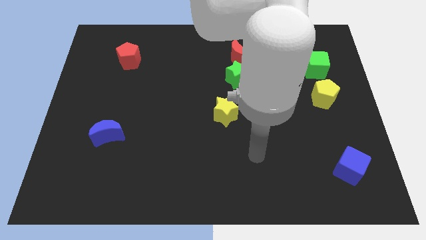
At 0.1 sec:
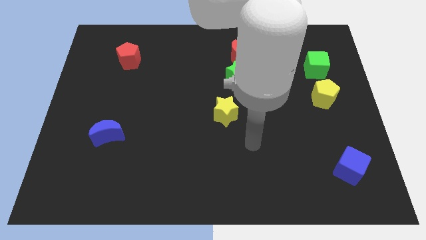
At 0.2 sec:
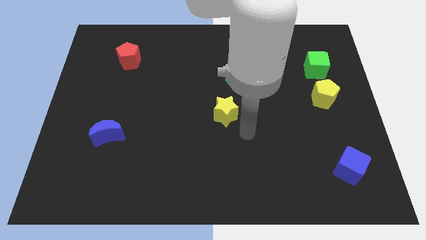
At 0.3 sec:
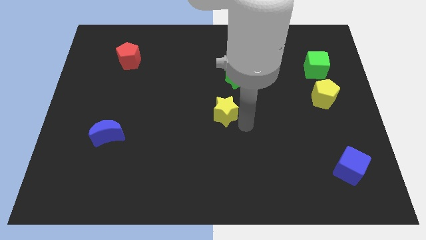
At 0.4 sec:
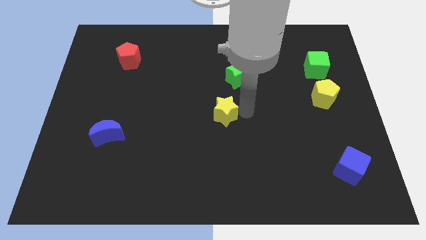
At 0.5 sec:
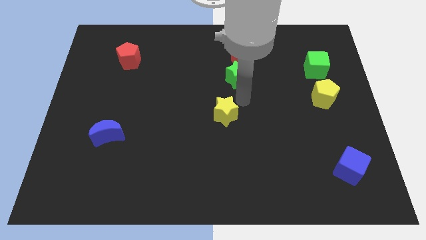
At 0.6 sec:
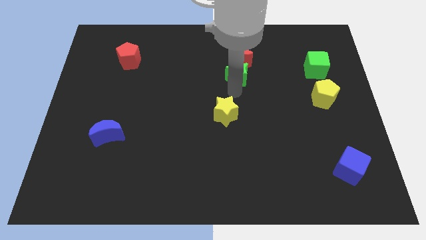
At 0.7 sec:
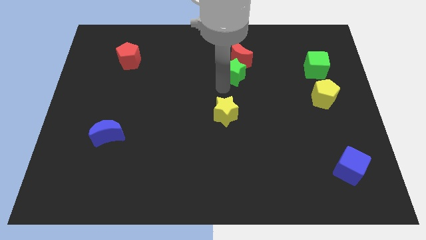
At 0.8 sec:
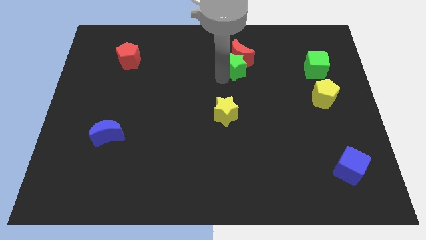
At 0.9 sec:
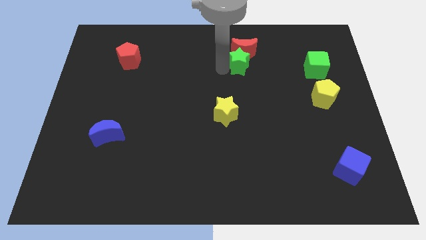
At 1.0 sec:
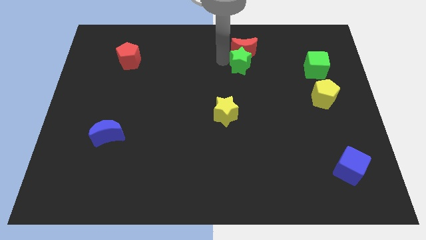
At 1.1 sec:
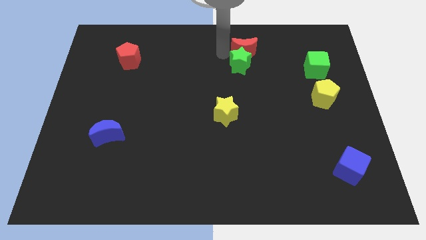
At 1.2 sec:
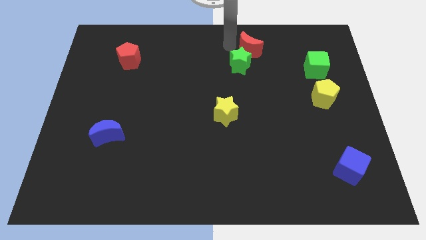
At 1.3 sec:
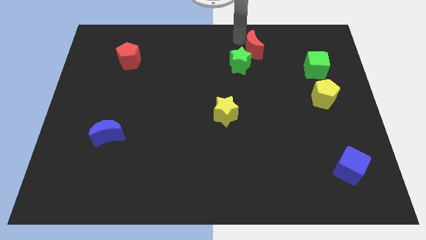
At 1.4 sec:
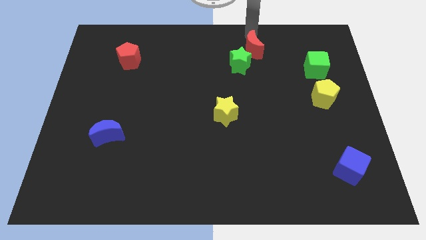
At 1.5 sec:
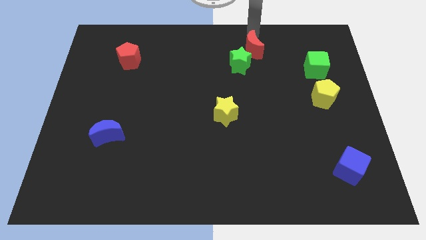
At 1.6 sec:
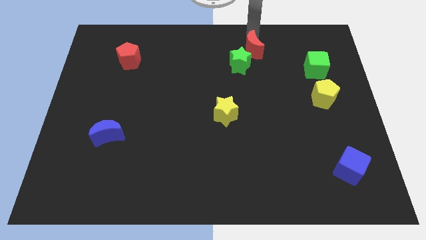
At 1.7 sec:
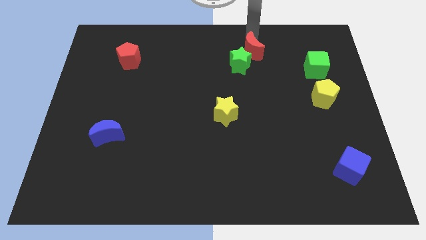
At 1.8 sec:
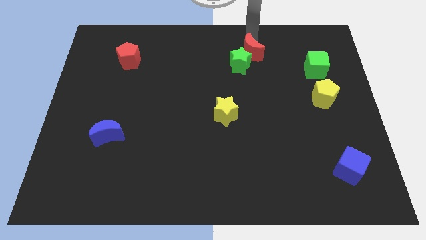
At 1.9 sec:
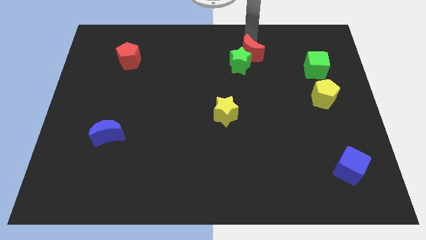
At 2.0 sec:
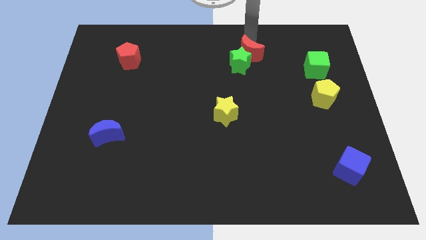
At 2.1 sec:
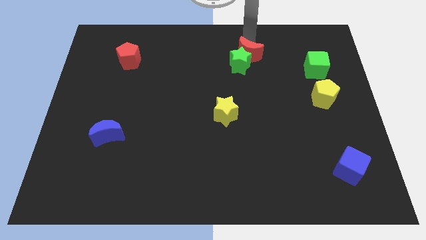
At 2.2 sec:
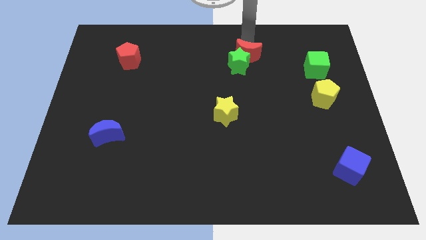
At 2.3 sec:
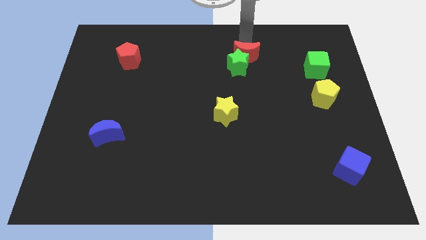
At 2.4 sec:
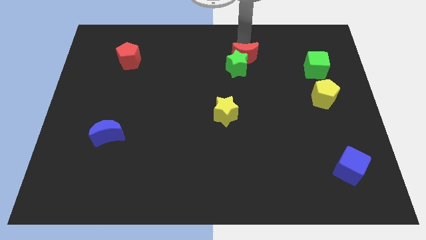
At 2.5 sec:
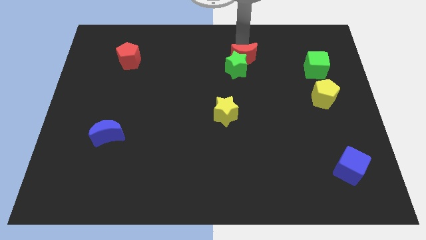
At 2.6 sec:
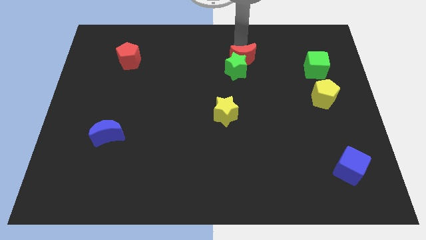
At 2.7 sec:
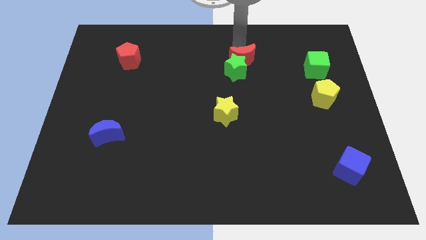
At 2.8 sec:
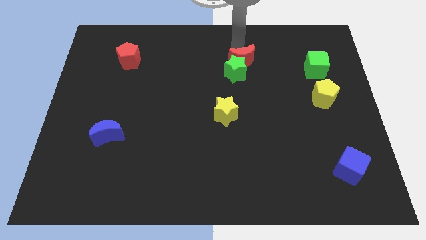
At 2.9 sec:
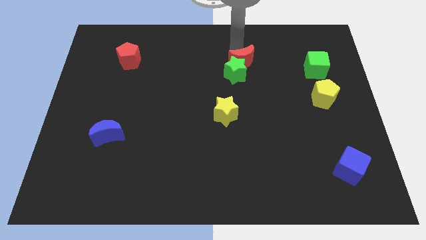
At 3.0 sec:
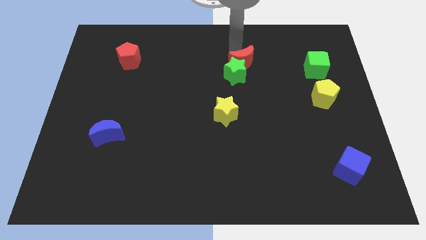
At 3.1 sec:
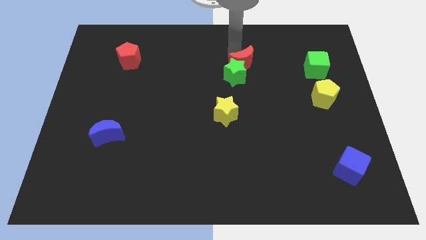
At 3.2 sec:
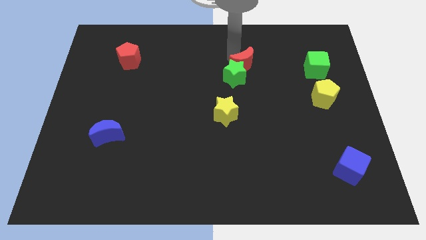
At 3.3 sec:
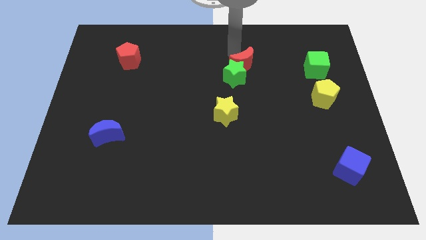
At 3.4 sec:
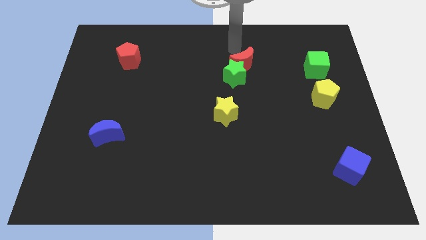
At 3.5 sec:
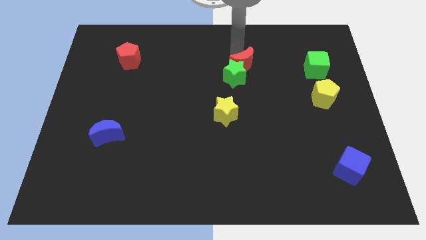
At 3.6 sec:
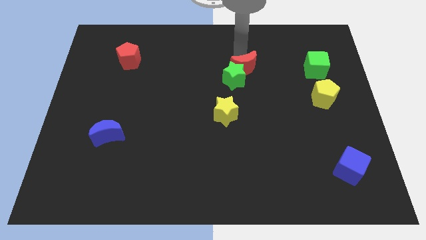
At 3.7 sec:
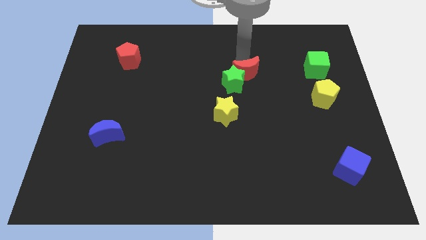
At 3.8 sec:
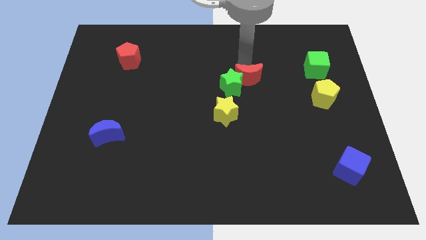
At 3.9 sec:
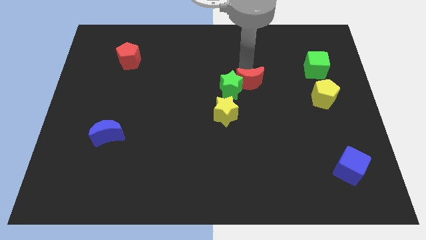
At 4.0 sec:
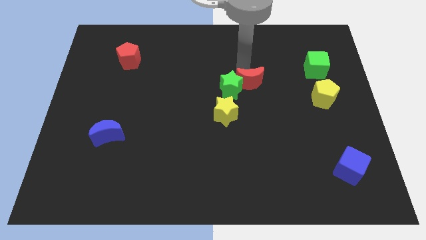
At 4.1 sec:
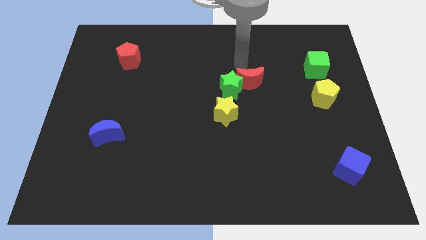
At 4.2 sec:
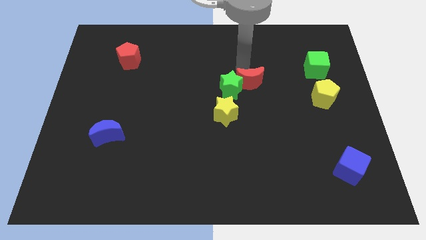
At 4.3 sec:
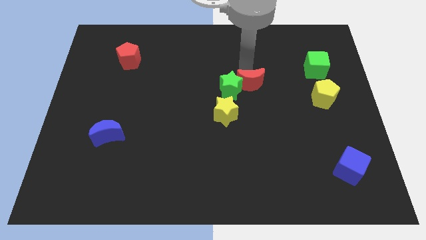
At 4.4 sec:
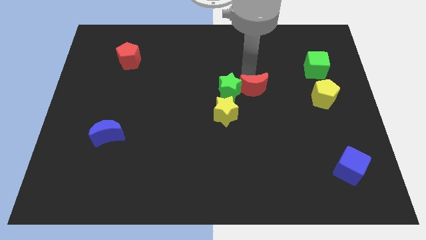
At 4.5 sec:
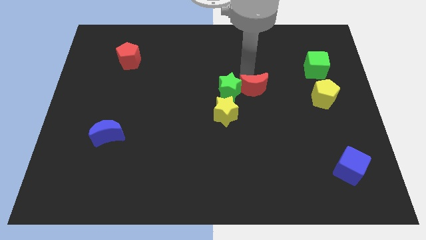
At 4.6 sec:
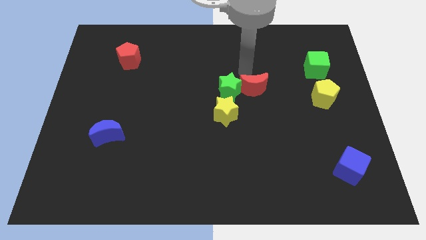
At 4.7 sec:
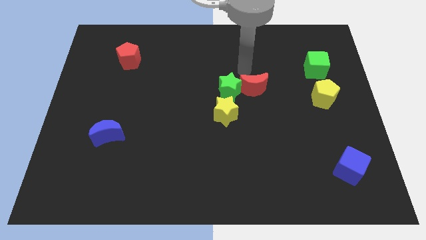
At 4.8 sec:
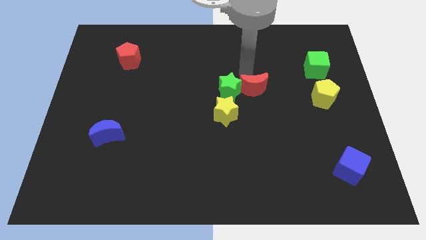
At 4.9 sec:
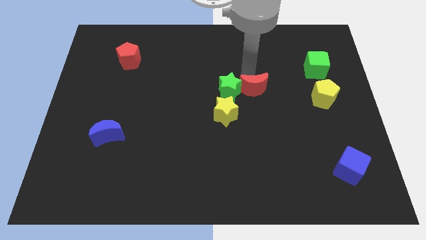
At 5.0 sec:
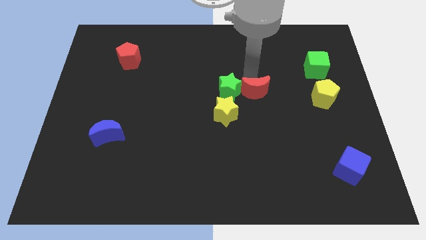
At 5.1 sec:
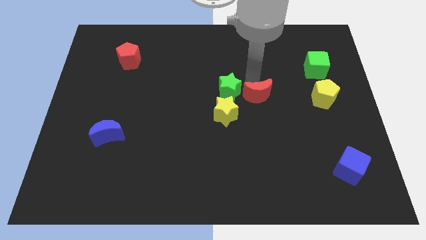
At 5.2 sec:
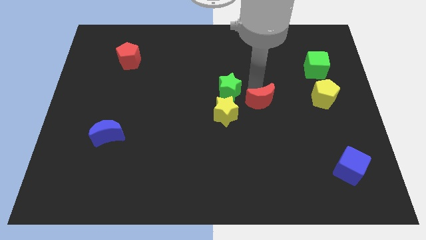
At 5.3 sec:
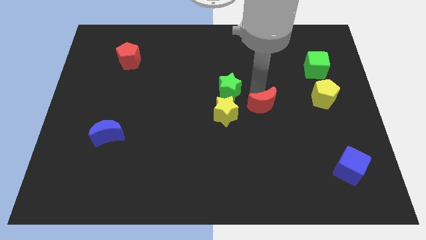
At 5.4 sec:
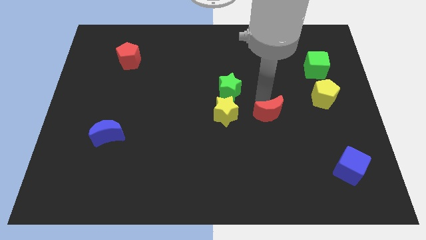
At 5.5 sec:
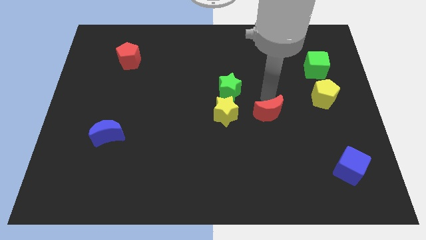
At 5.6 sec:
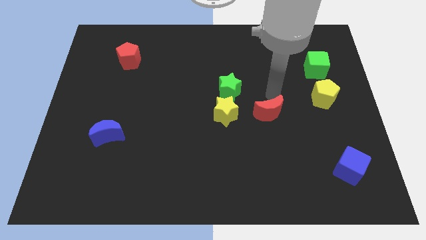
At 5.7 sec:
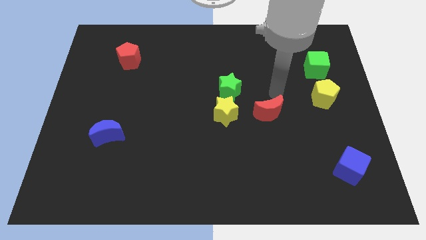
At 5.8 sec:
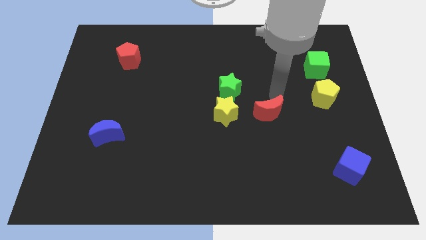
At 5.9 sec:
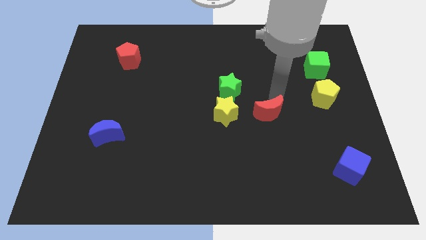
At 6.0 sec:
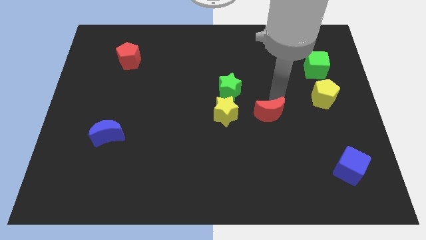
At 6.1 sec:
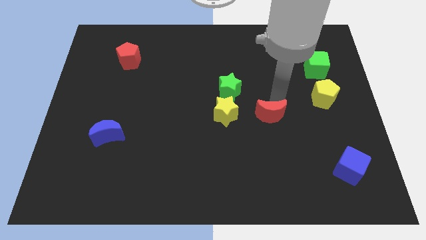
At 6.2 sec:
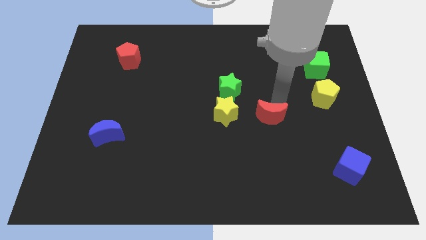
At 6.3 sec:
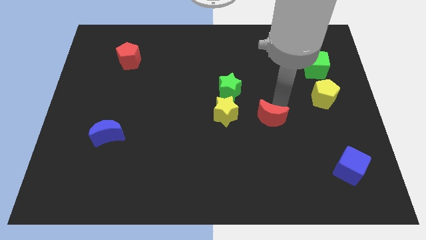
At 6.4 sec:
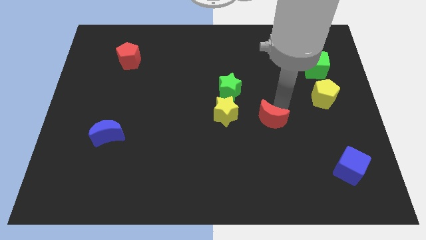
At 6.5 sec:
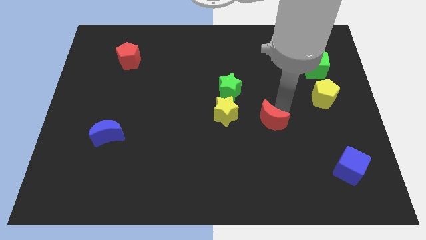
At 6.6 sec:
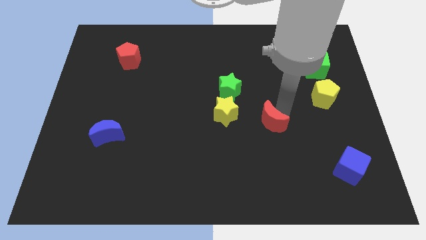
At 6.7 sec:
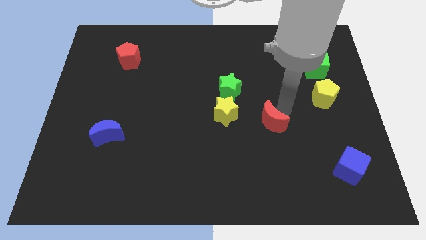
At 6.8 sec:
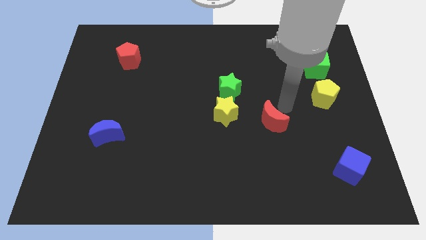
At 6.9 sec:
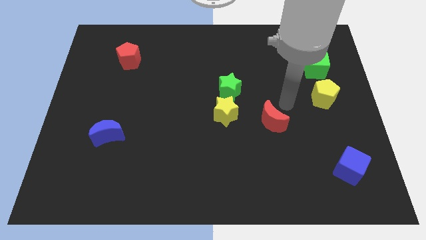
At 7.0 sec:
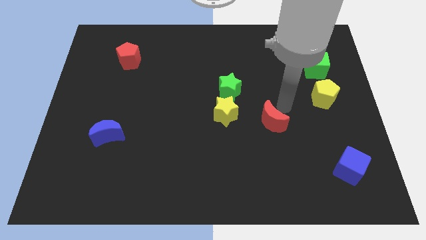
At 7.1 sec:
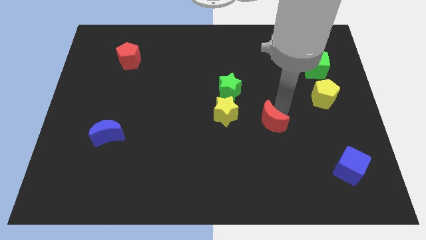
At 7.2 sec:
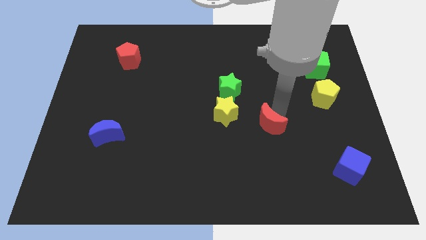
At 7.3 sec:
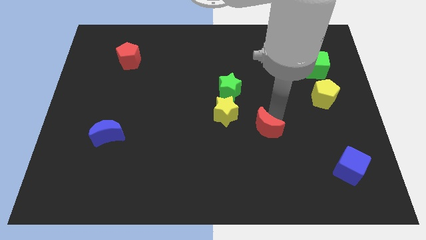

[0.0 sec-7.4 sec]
slide the red moon downwards

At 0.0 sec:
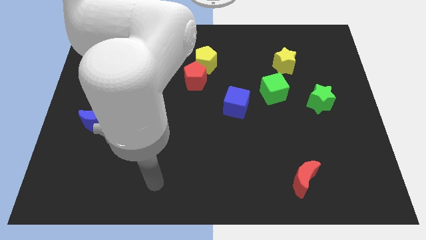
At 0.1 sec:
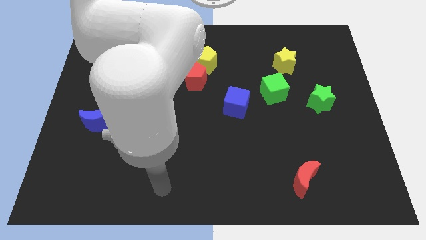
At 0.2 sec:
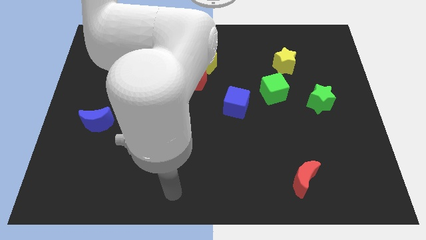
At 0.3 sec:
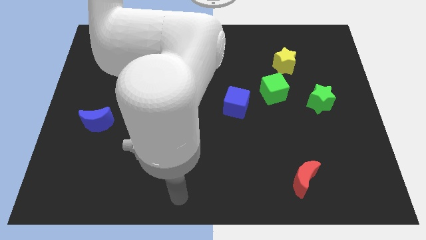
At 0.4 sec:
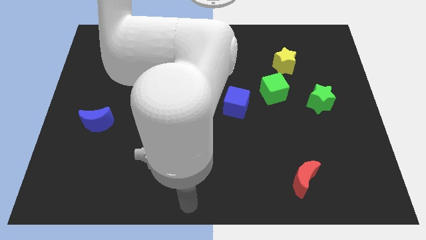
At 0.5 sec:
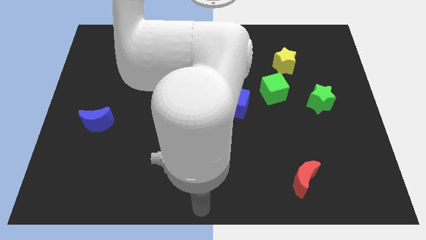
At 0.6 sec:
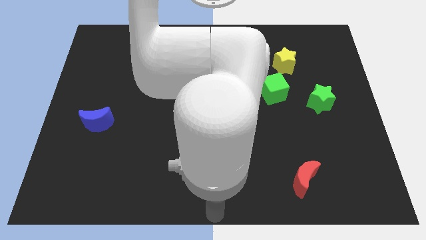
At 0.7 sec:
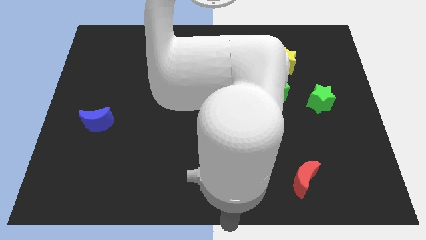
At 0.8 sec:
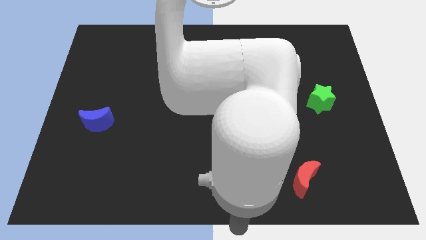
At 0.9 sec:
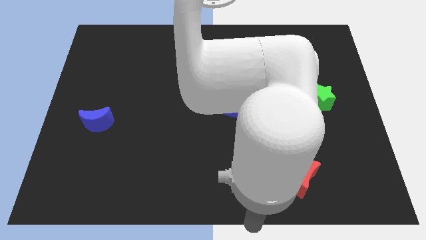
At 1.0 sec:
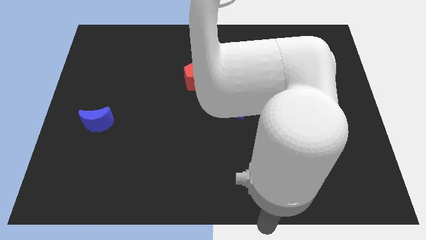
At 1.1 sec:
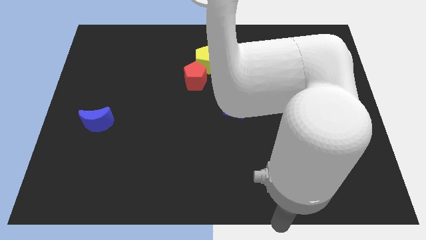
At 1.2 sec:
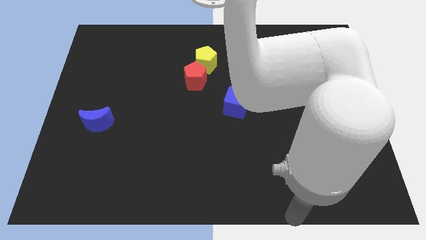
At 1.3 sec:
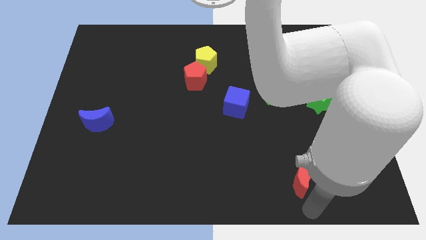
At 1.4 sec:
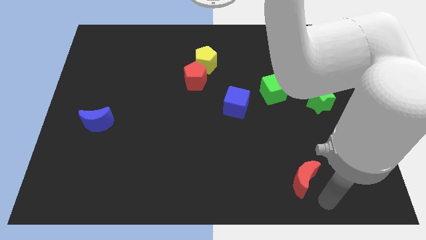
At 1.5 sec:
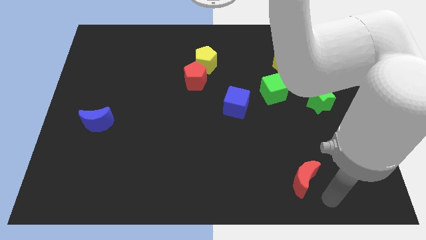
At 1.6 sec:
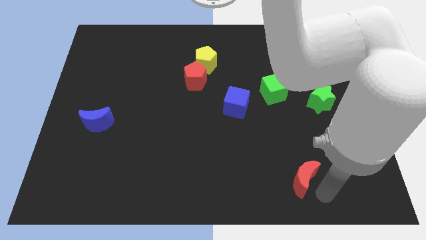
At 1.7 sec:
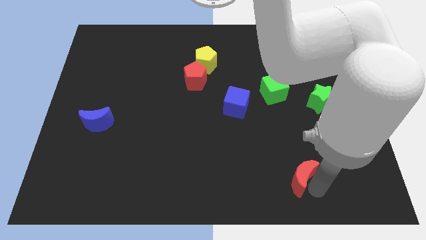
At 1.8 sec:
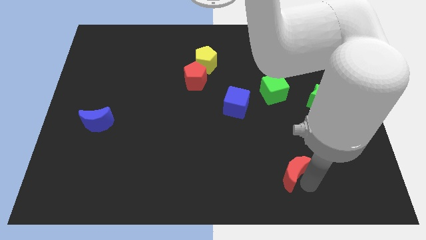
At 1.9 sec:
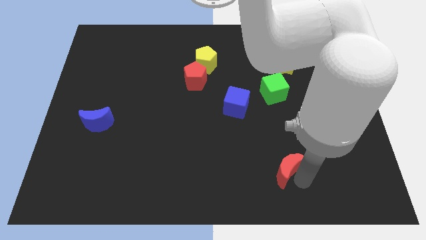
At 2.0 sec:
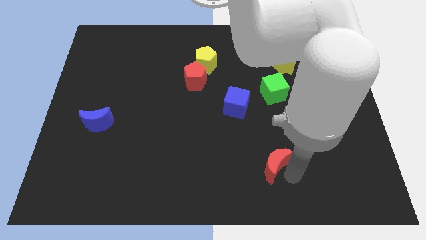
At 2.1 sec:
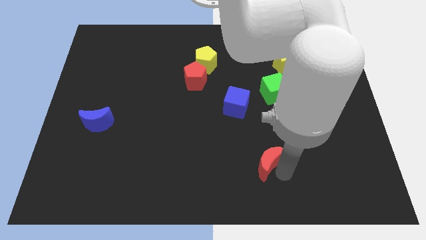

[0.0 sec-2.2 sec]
move the red moon slightly upwards and then left
